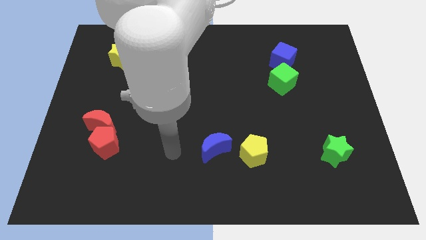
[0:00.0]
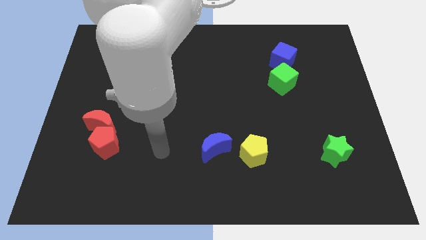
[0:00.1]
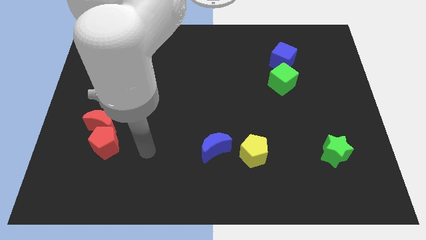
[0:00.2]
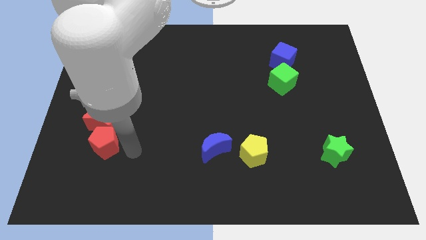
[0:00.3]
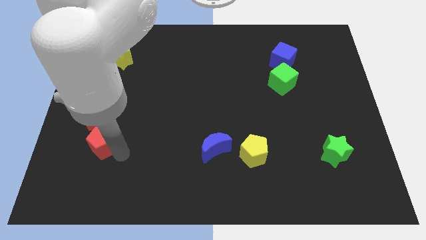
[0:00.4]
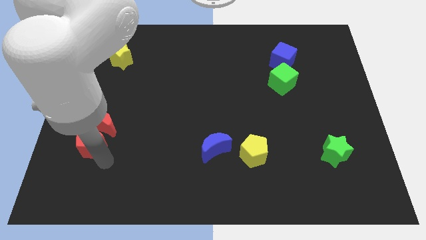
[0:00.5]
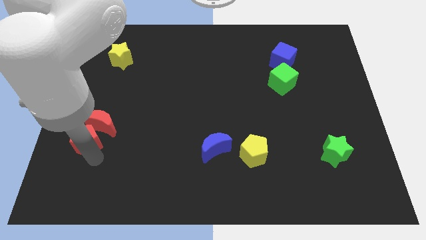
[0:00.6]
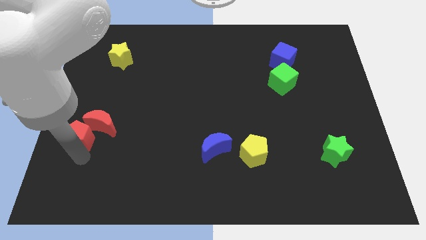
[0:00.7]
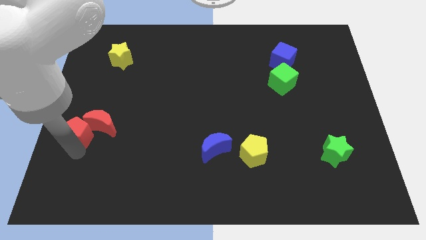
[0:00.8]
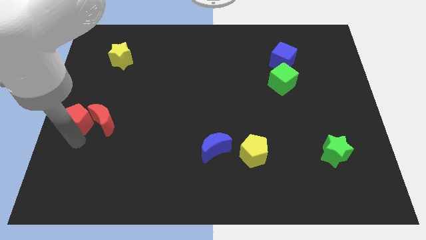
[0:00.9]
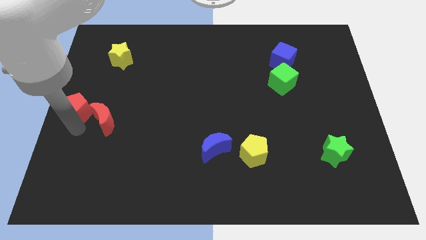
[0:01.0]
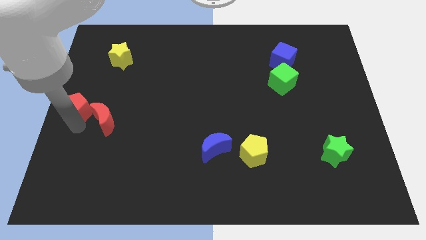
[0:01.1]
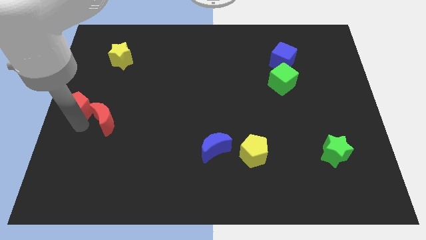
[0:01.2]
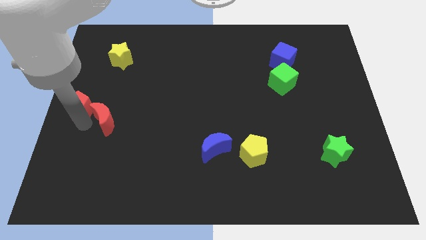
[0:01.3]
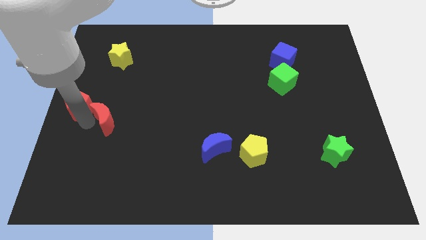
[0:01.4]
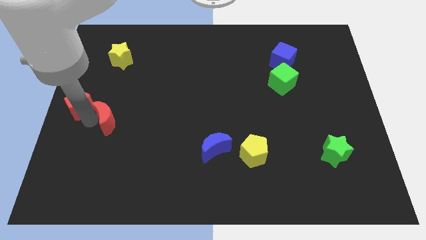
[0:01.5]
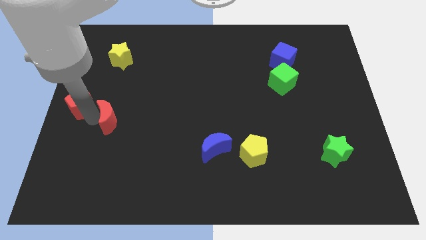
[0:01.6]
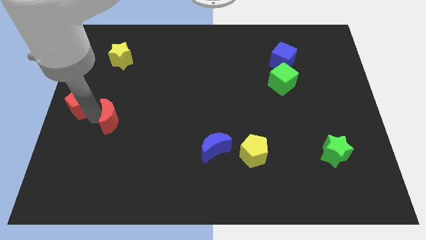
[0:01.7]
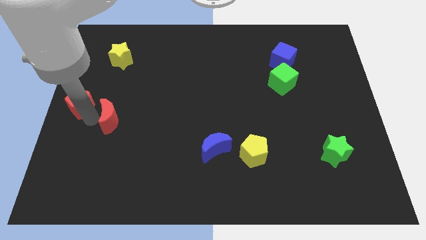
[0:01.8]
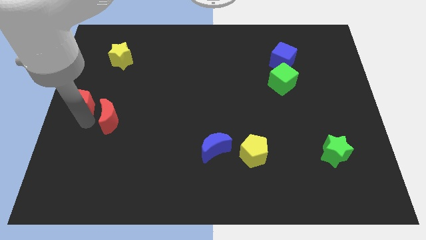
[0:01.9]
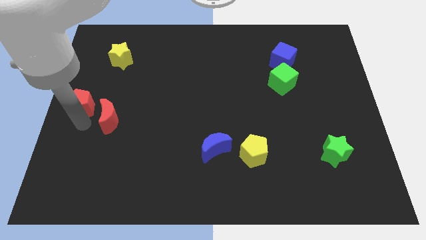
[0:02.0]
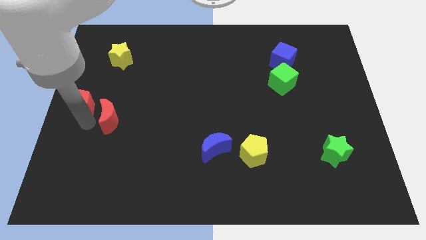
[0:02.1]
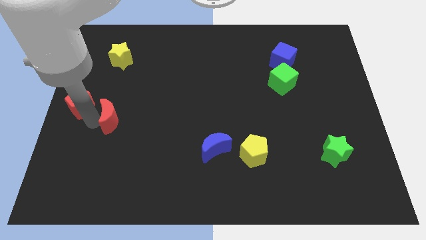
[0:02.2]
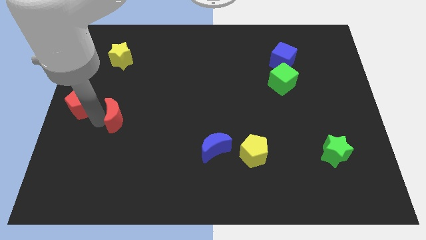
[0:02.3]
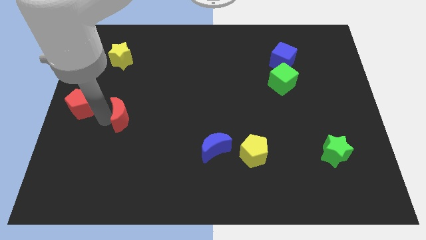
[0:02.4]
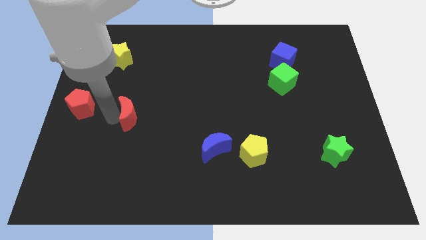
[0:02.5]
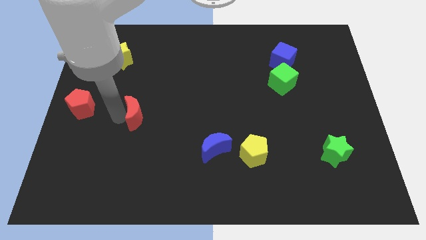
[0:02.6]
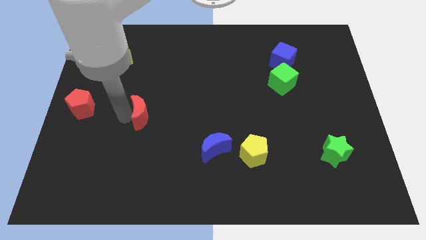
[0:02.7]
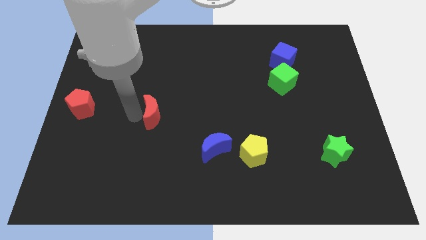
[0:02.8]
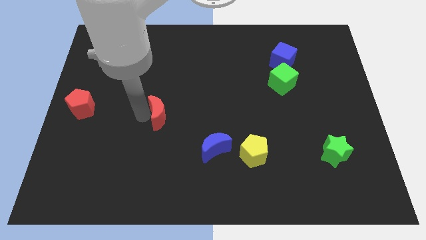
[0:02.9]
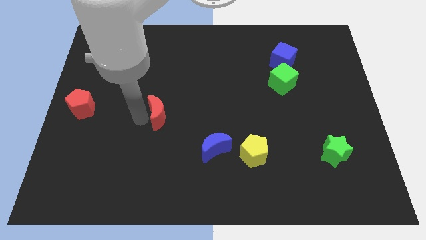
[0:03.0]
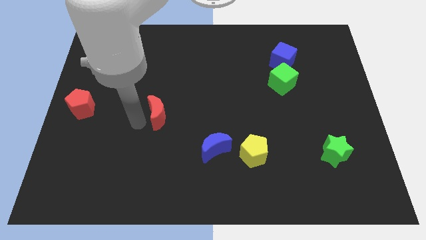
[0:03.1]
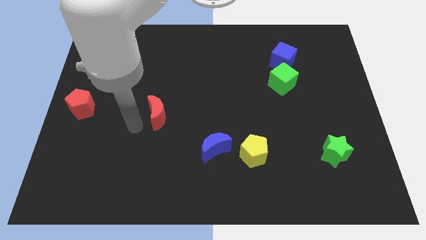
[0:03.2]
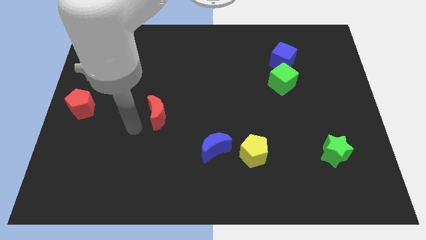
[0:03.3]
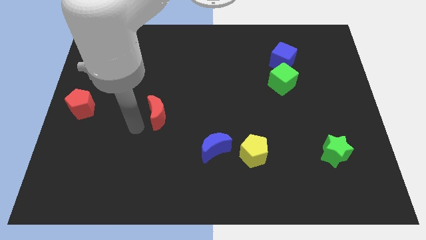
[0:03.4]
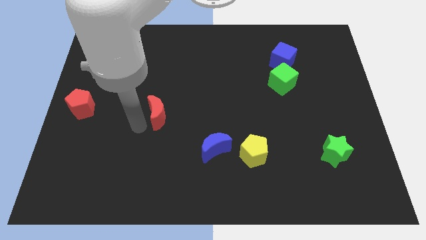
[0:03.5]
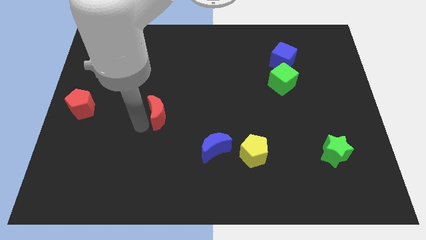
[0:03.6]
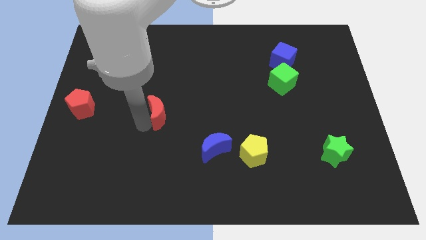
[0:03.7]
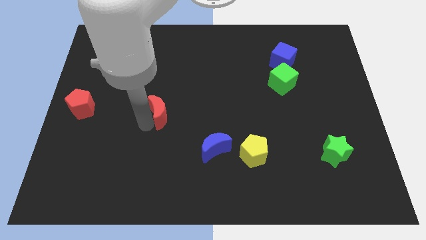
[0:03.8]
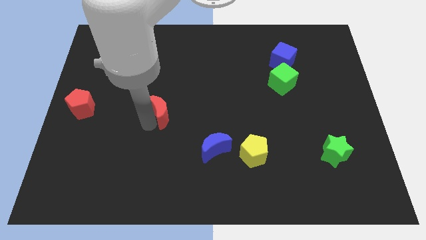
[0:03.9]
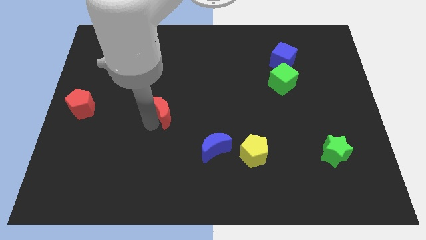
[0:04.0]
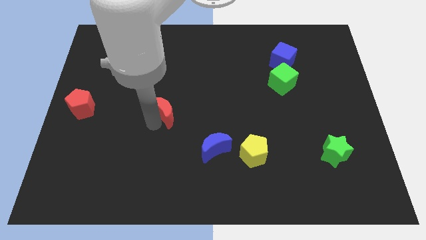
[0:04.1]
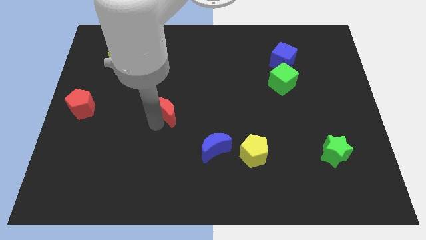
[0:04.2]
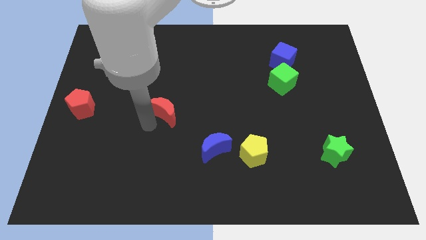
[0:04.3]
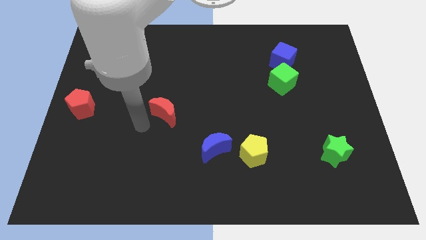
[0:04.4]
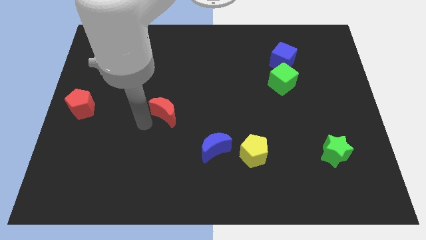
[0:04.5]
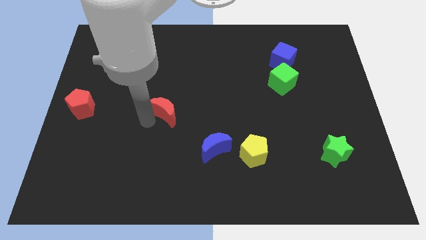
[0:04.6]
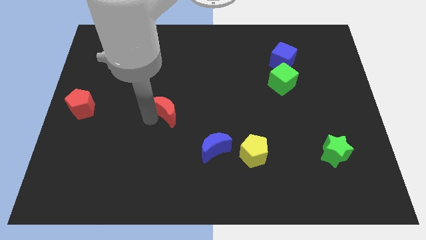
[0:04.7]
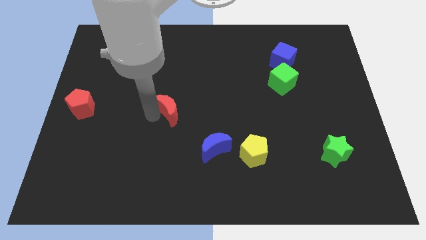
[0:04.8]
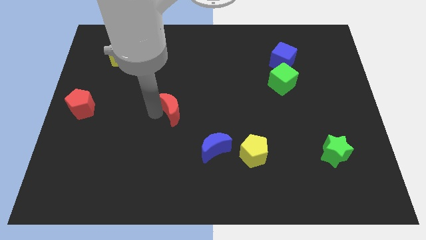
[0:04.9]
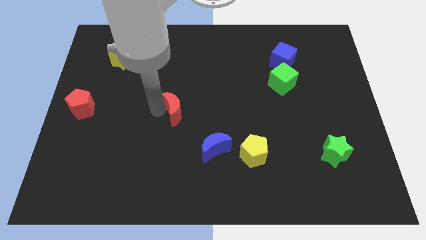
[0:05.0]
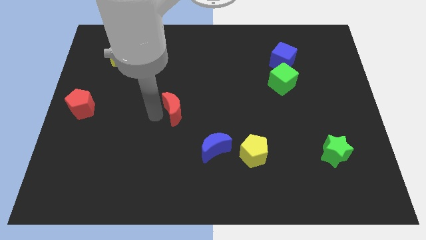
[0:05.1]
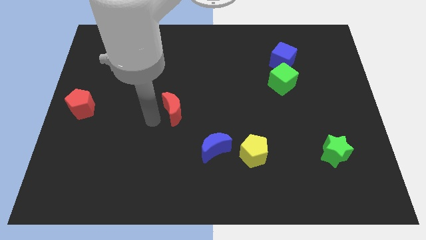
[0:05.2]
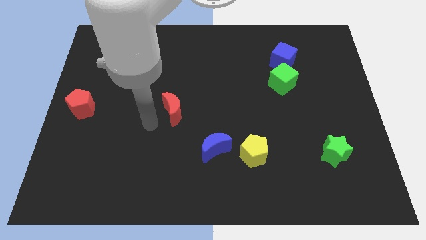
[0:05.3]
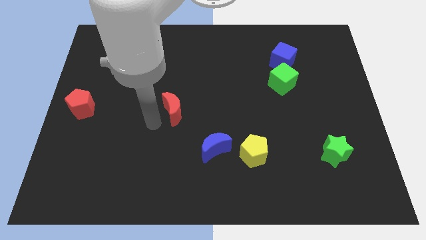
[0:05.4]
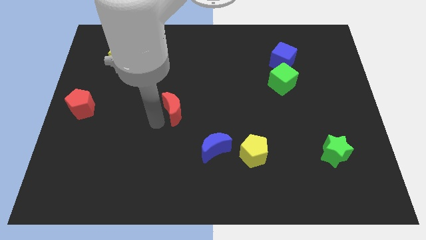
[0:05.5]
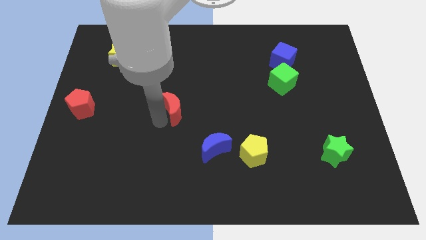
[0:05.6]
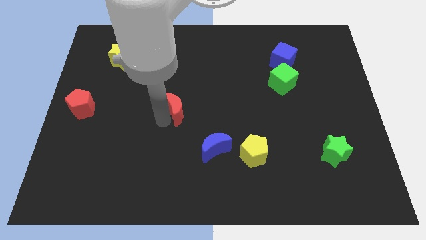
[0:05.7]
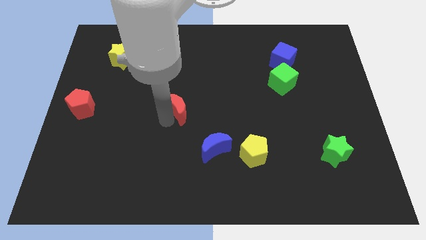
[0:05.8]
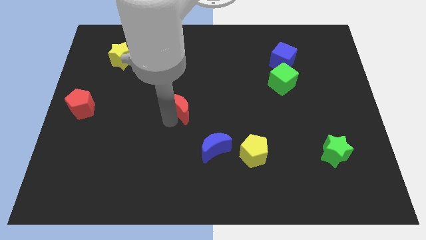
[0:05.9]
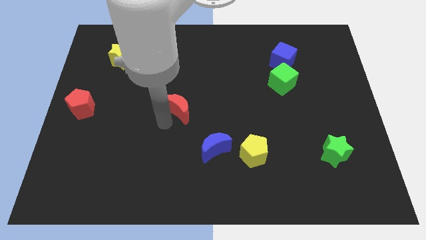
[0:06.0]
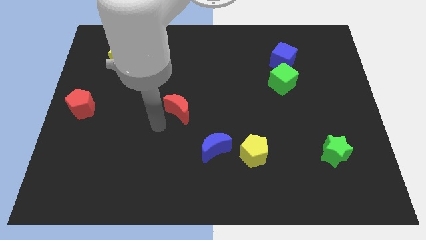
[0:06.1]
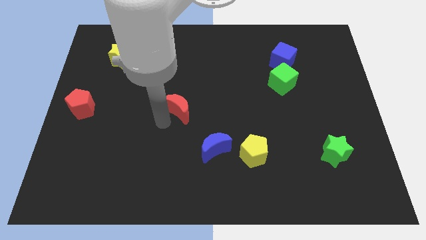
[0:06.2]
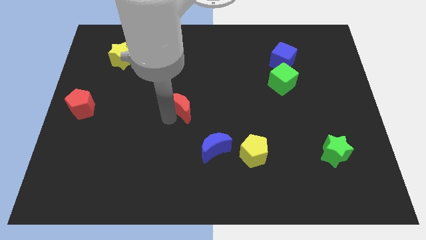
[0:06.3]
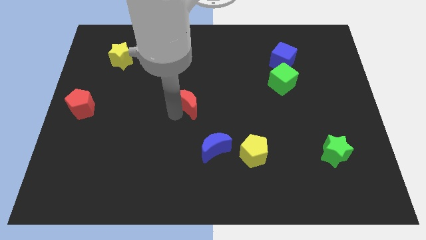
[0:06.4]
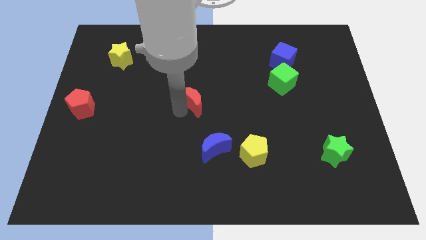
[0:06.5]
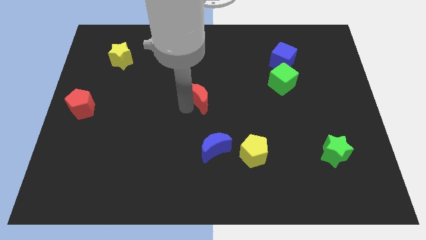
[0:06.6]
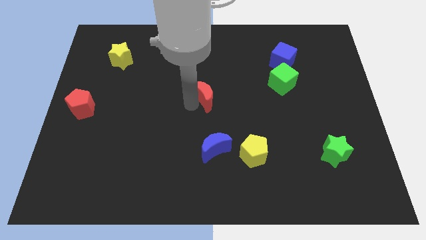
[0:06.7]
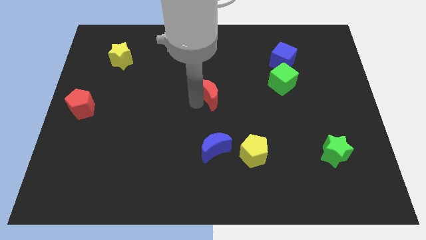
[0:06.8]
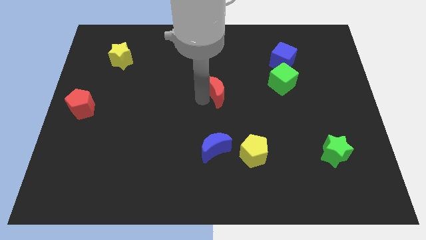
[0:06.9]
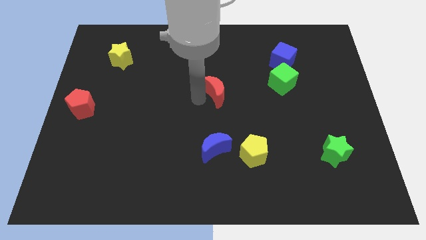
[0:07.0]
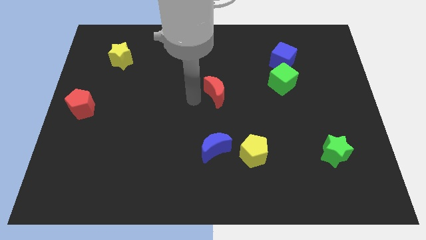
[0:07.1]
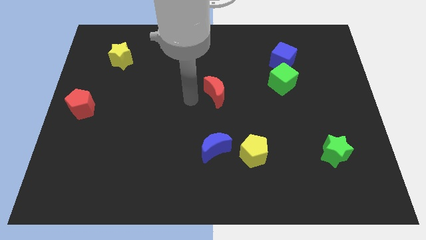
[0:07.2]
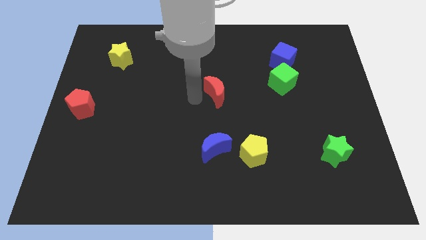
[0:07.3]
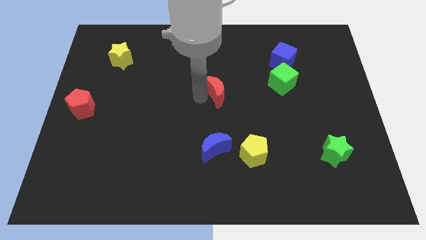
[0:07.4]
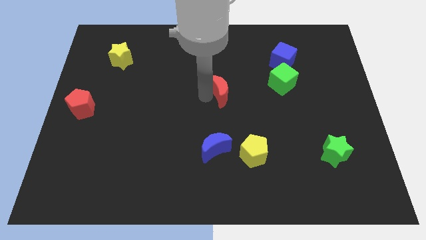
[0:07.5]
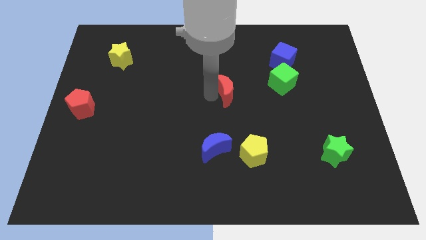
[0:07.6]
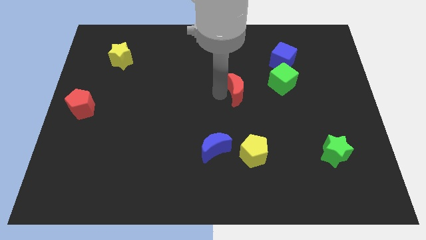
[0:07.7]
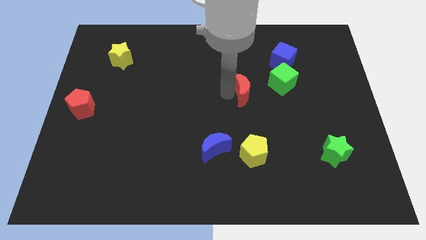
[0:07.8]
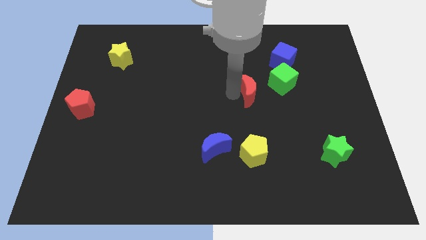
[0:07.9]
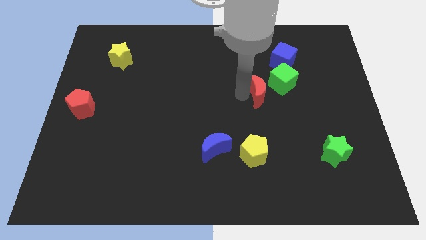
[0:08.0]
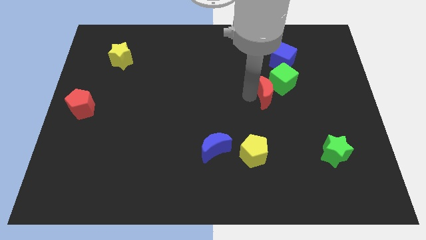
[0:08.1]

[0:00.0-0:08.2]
slide the red moon towards the green cube
